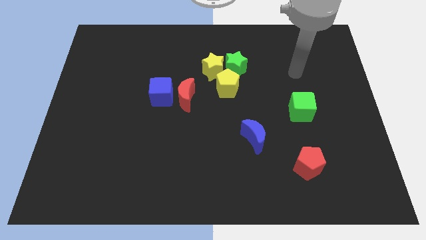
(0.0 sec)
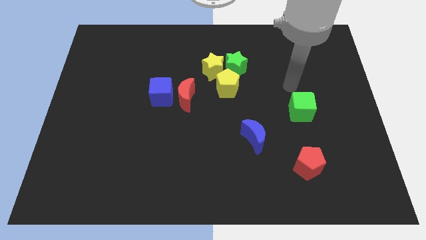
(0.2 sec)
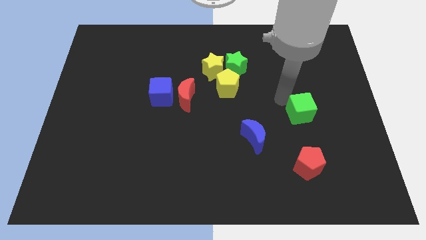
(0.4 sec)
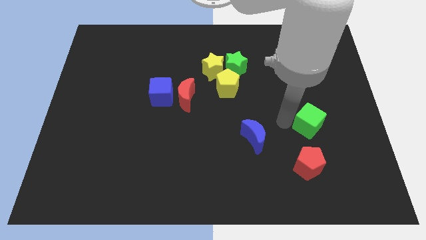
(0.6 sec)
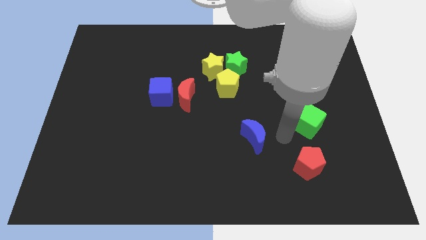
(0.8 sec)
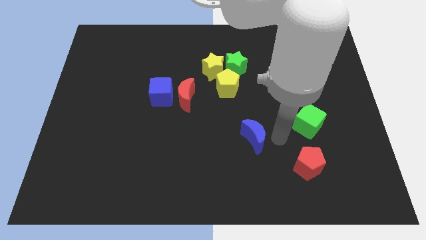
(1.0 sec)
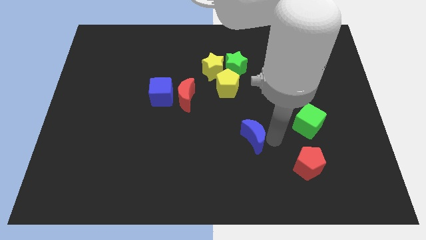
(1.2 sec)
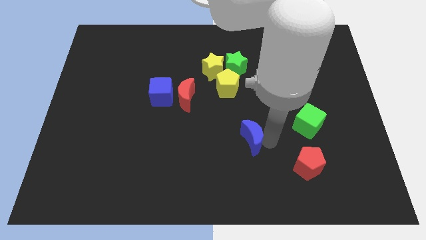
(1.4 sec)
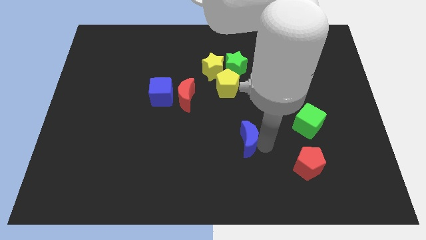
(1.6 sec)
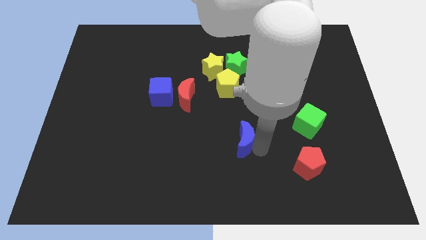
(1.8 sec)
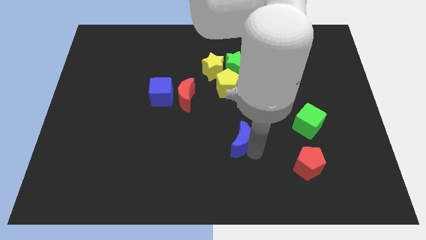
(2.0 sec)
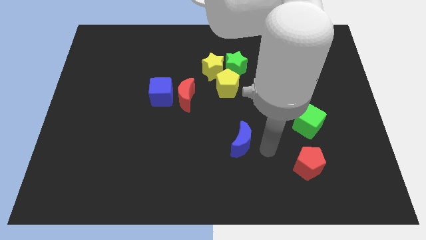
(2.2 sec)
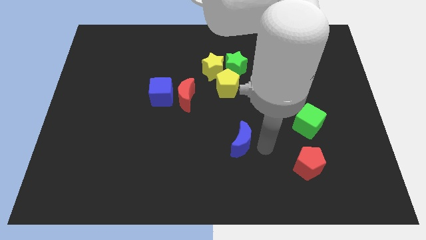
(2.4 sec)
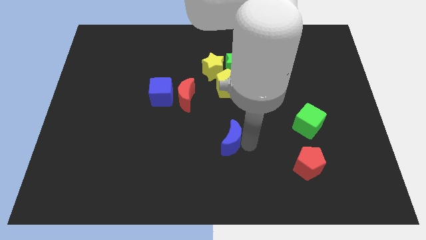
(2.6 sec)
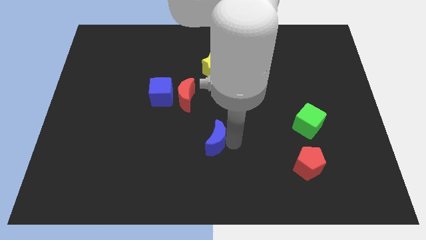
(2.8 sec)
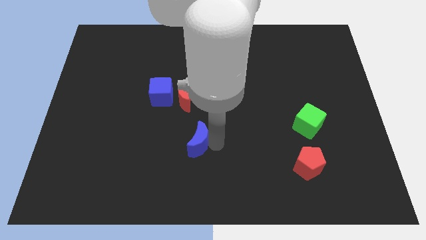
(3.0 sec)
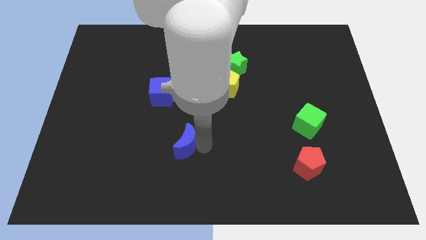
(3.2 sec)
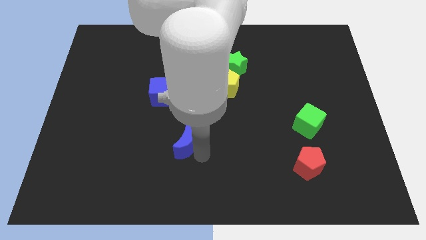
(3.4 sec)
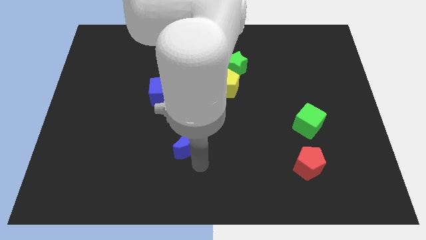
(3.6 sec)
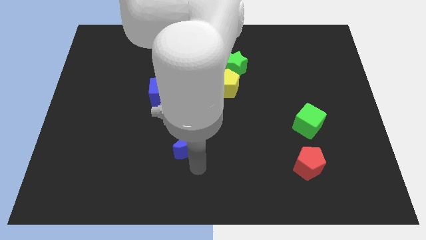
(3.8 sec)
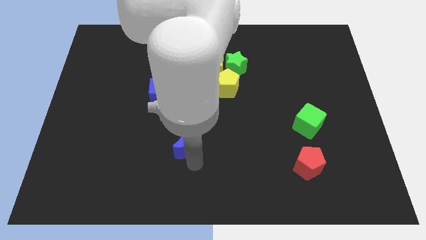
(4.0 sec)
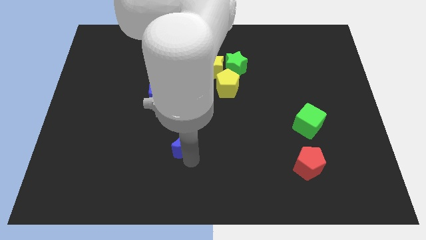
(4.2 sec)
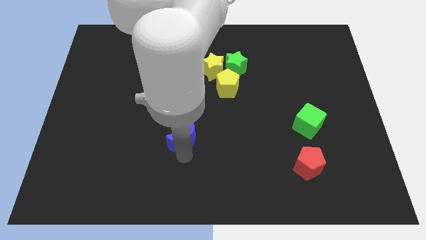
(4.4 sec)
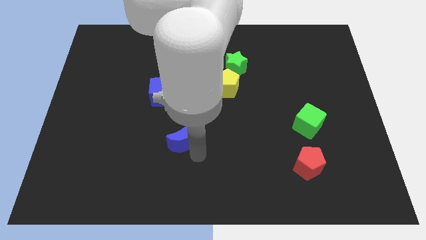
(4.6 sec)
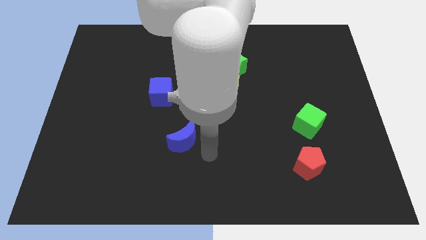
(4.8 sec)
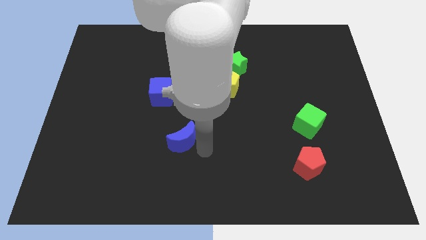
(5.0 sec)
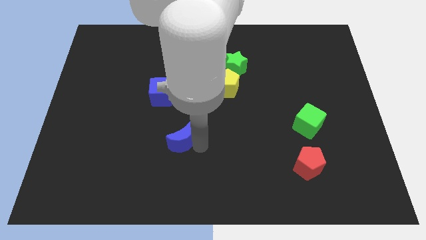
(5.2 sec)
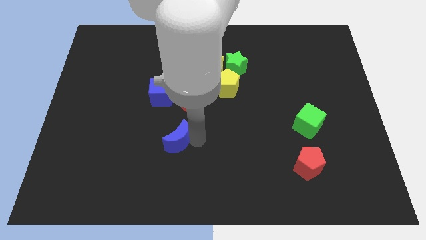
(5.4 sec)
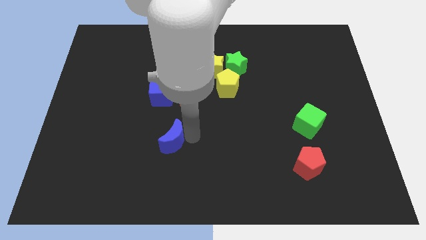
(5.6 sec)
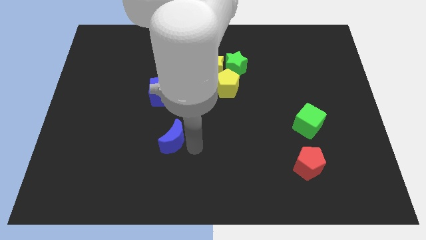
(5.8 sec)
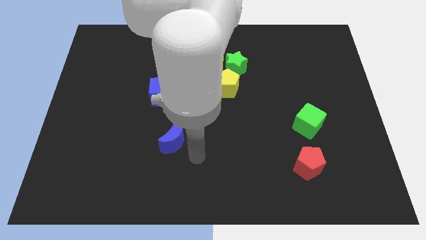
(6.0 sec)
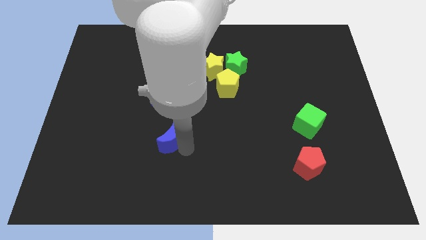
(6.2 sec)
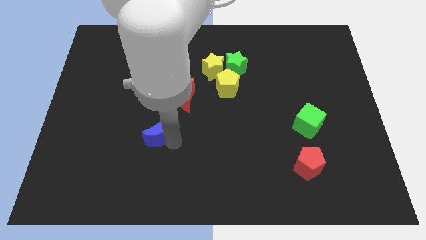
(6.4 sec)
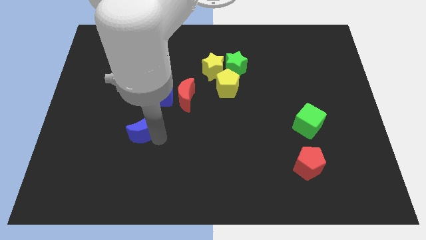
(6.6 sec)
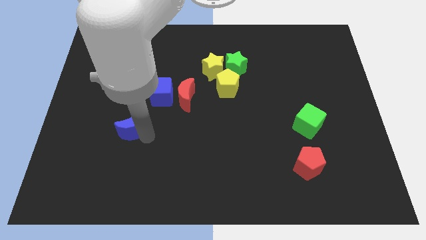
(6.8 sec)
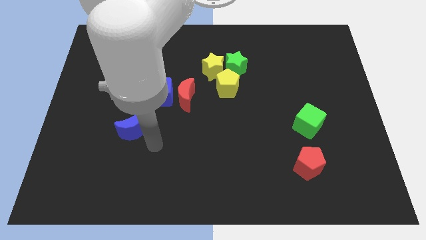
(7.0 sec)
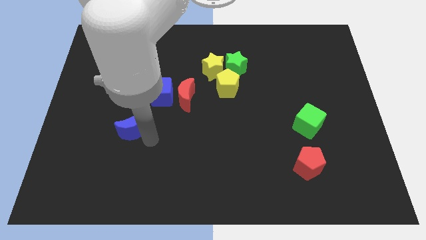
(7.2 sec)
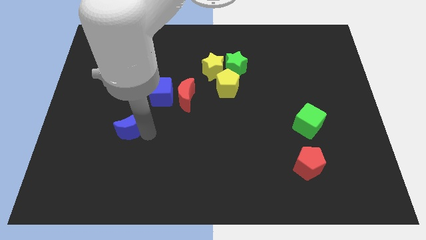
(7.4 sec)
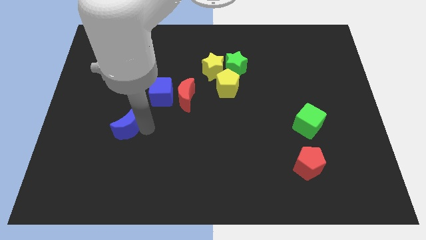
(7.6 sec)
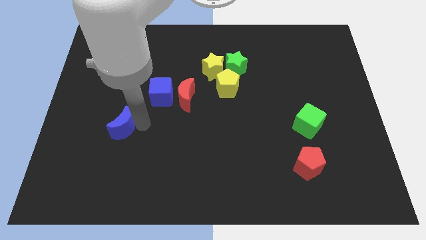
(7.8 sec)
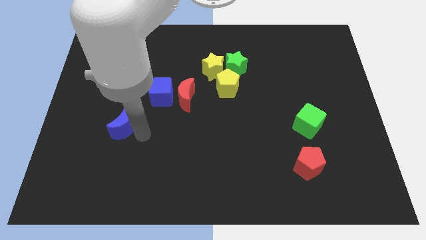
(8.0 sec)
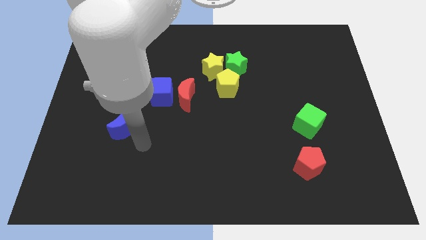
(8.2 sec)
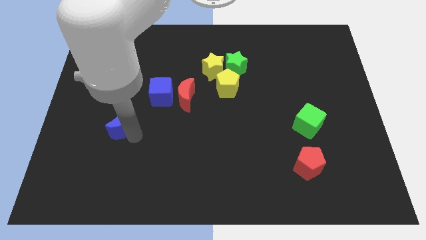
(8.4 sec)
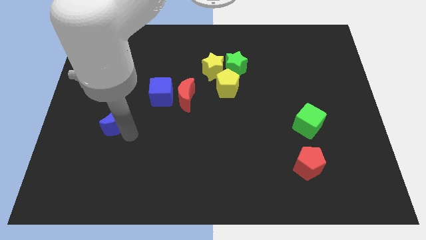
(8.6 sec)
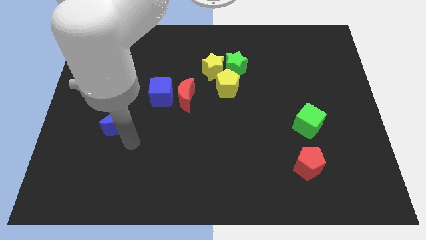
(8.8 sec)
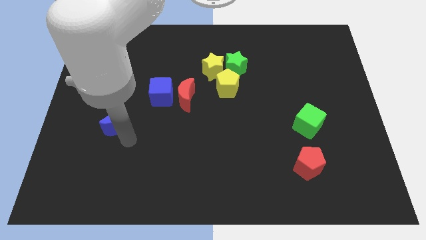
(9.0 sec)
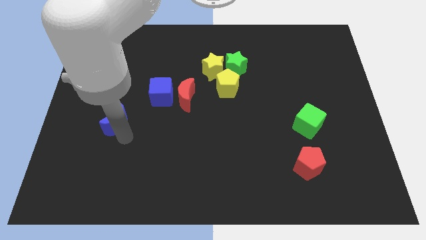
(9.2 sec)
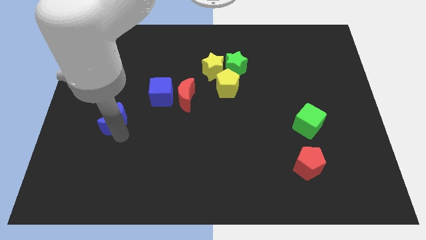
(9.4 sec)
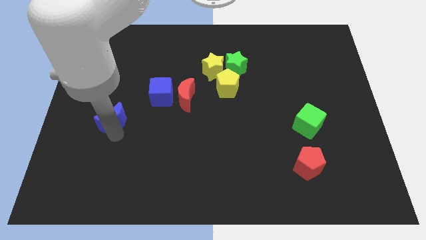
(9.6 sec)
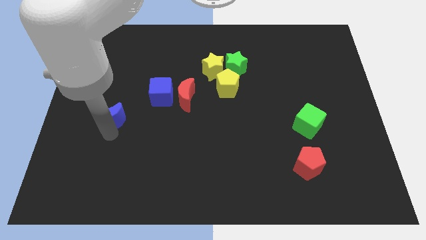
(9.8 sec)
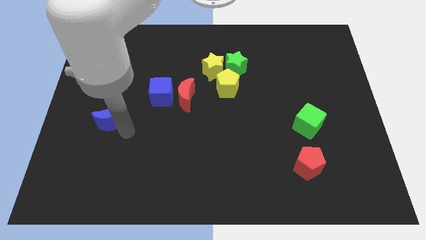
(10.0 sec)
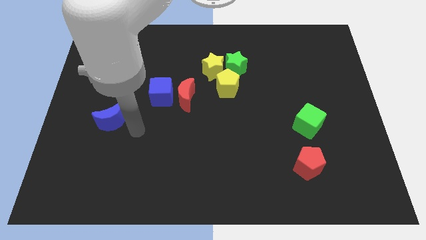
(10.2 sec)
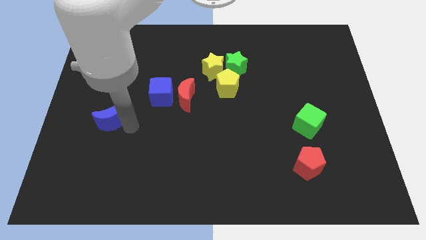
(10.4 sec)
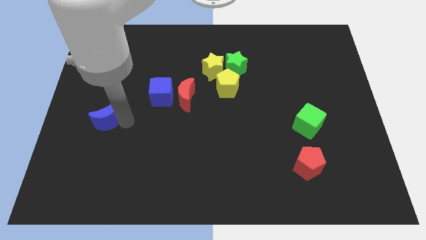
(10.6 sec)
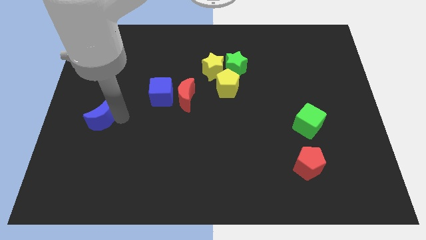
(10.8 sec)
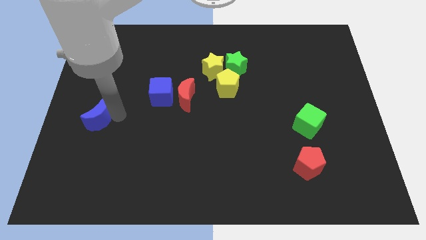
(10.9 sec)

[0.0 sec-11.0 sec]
move the blue moon to the left side

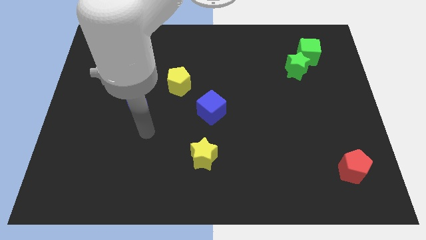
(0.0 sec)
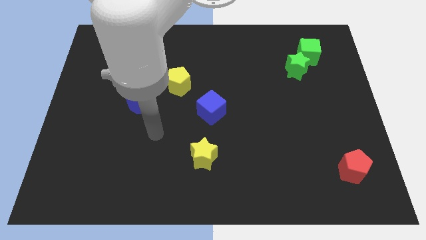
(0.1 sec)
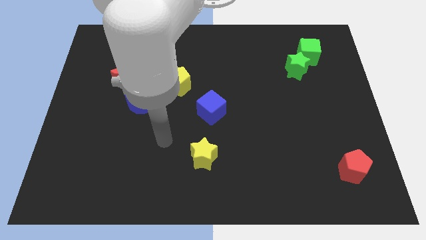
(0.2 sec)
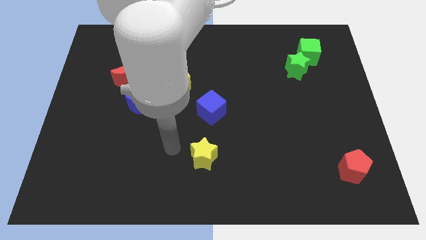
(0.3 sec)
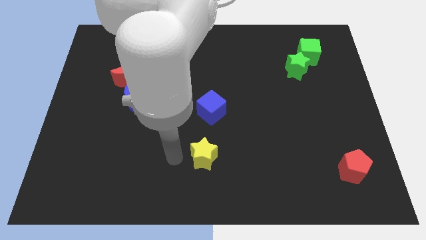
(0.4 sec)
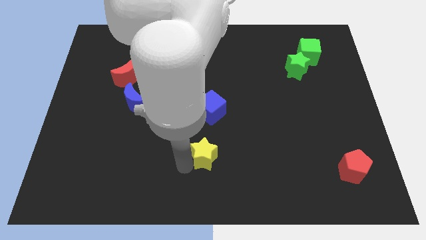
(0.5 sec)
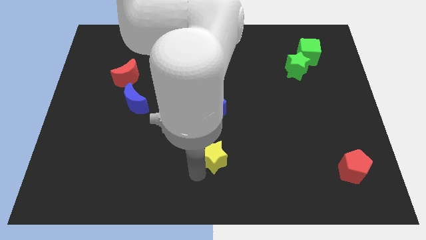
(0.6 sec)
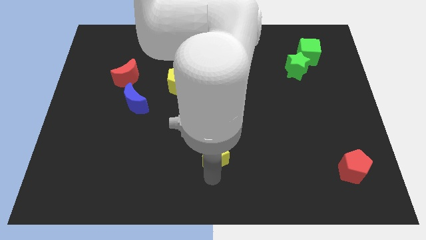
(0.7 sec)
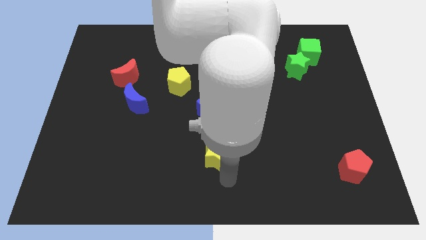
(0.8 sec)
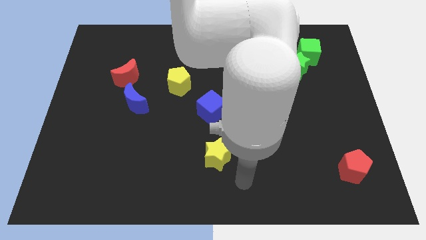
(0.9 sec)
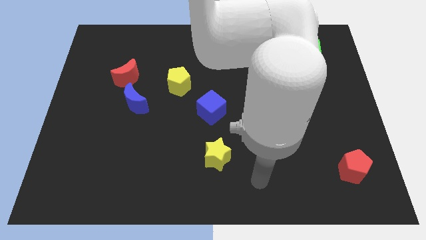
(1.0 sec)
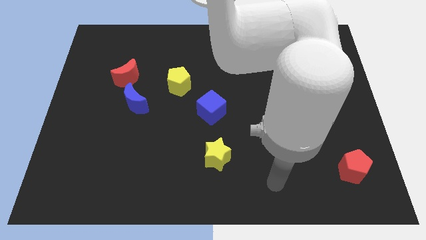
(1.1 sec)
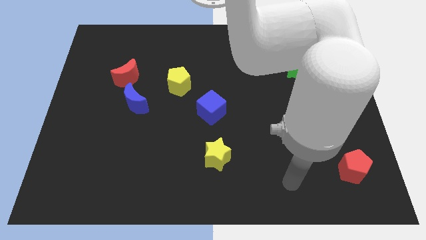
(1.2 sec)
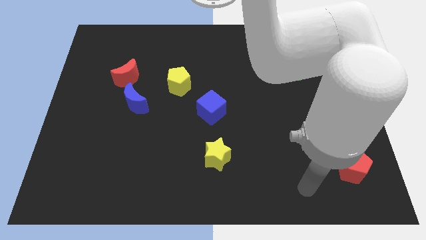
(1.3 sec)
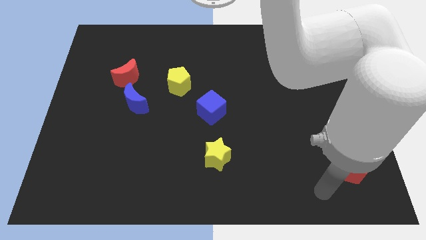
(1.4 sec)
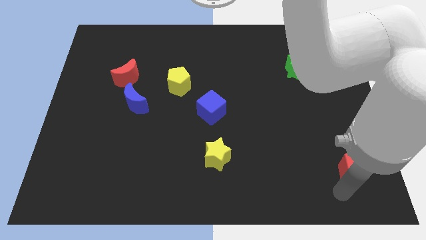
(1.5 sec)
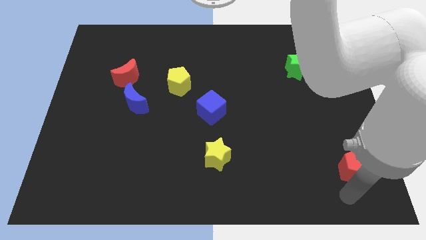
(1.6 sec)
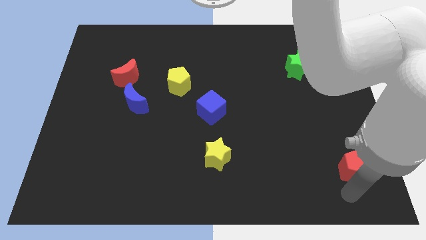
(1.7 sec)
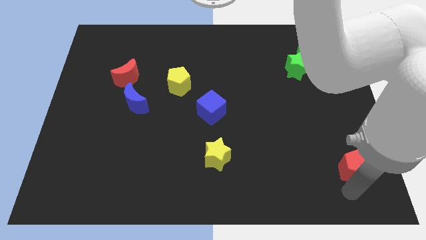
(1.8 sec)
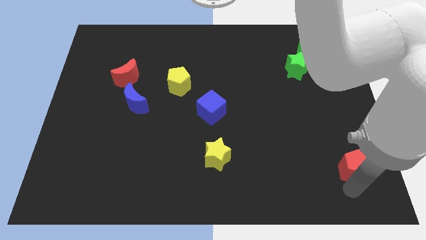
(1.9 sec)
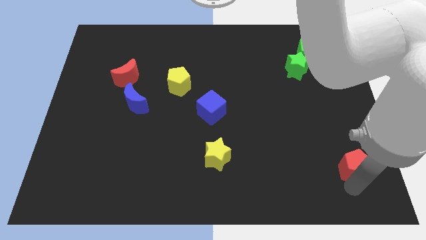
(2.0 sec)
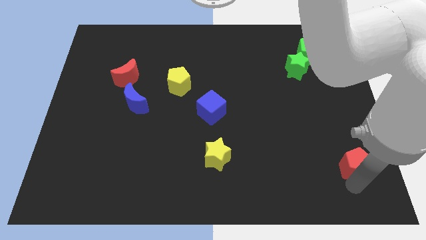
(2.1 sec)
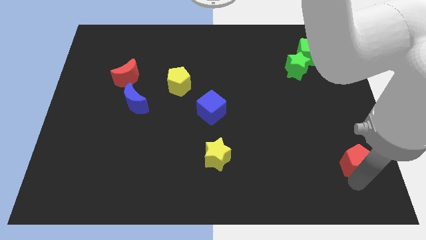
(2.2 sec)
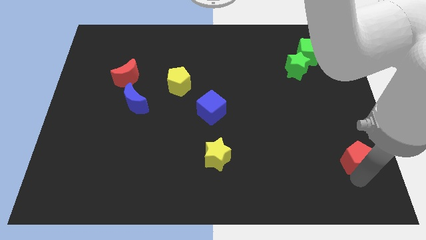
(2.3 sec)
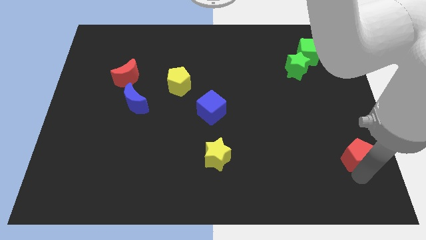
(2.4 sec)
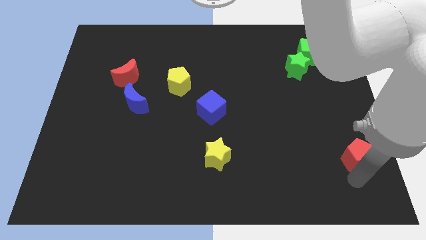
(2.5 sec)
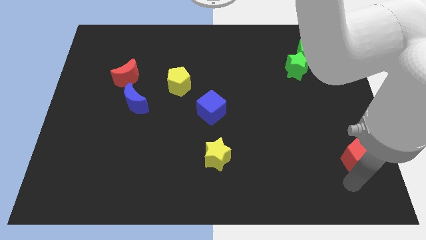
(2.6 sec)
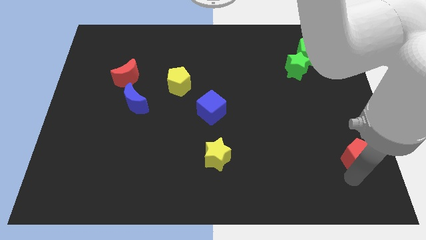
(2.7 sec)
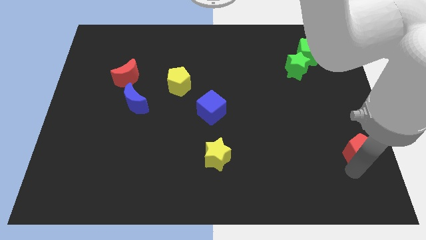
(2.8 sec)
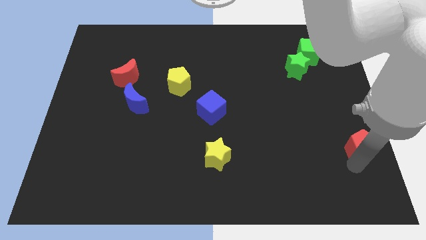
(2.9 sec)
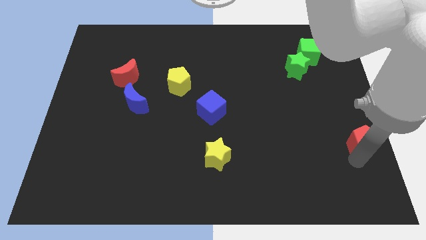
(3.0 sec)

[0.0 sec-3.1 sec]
slide the red pentagon to the right side of the board
